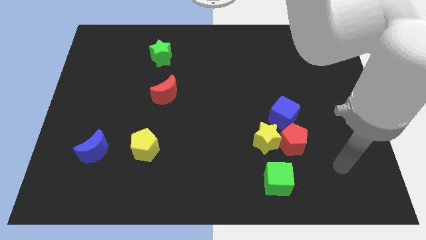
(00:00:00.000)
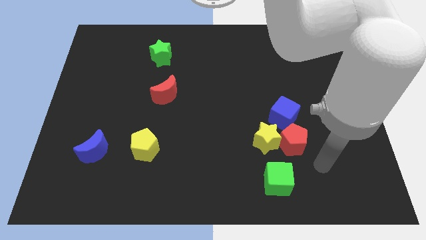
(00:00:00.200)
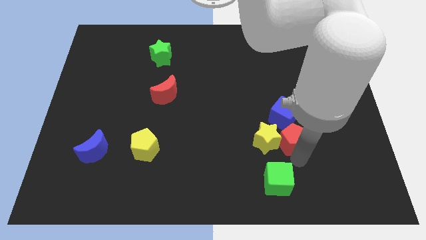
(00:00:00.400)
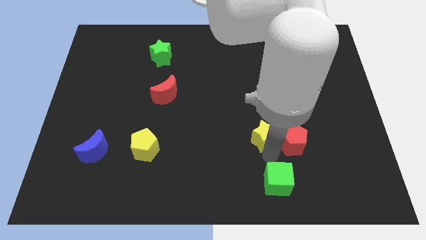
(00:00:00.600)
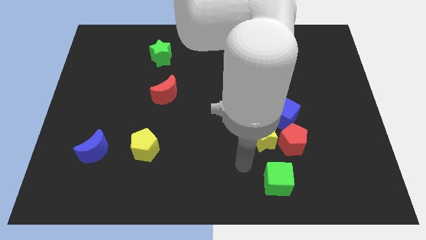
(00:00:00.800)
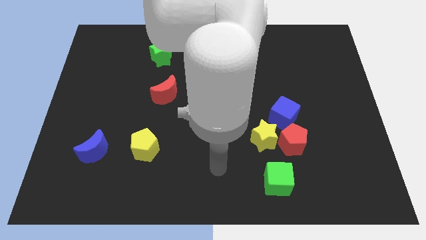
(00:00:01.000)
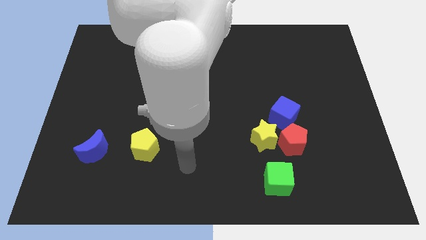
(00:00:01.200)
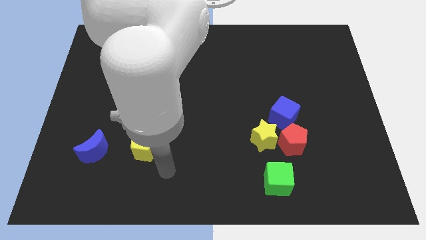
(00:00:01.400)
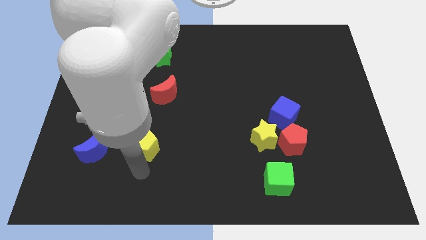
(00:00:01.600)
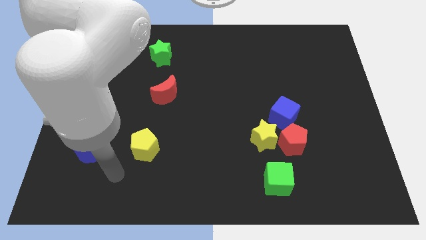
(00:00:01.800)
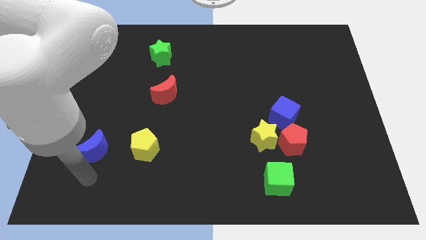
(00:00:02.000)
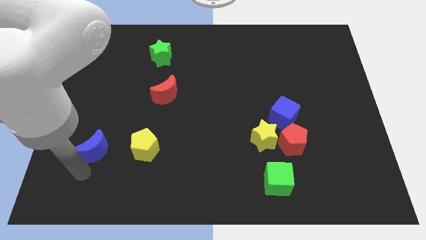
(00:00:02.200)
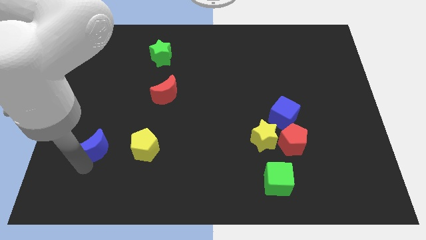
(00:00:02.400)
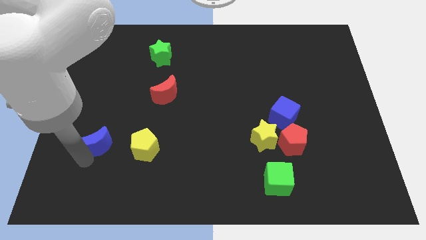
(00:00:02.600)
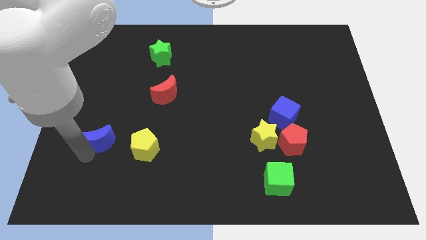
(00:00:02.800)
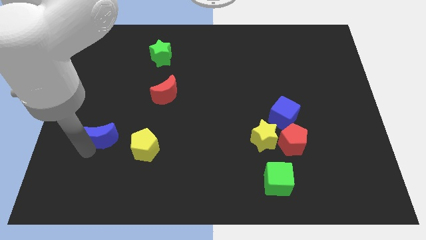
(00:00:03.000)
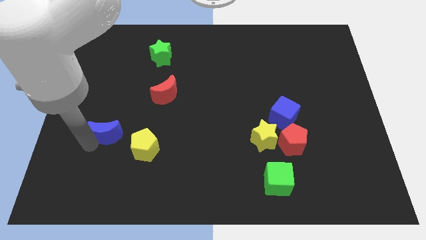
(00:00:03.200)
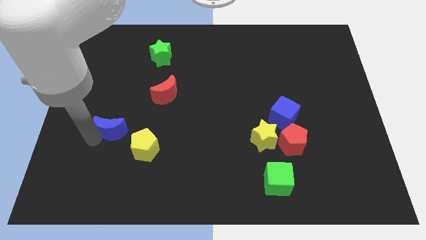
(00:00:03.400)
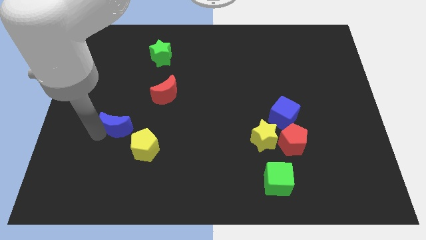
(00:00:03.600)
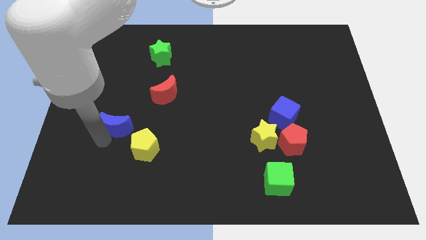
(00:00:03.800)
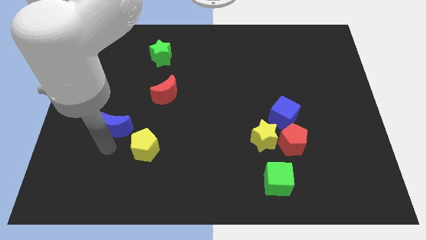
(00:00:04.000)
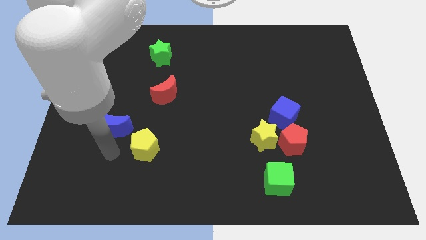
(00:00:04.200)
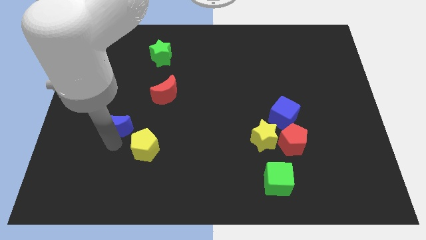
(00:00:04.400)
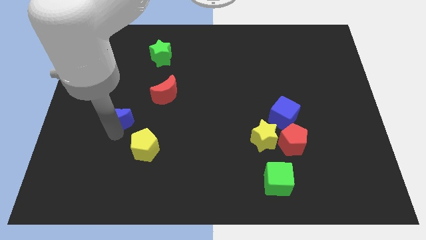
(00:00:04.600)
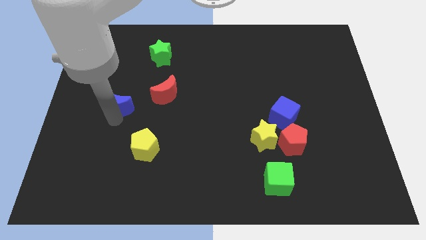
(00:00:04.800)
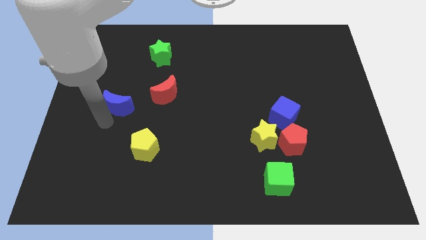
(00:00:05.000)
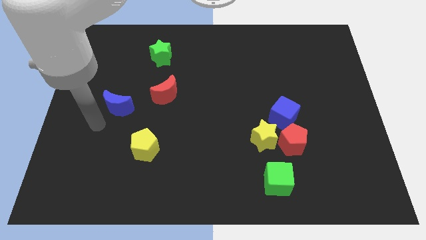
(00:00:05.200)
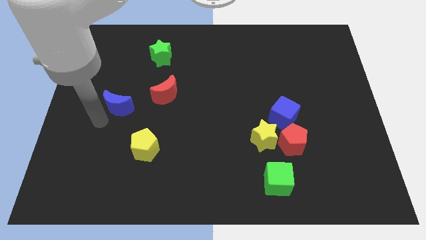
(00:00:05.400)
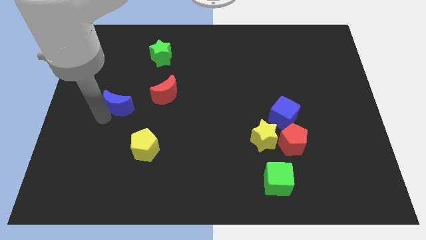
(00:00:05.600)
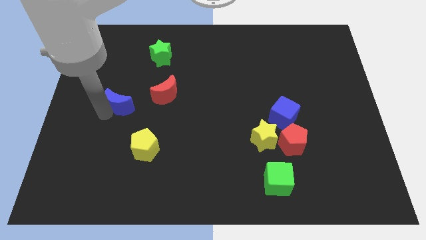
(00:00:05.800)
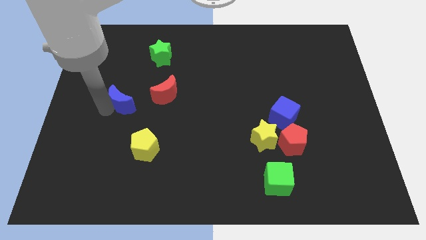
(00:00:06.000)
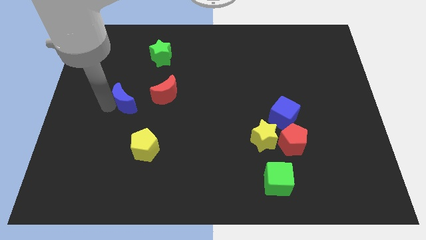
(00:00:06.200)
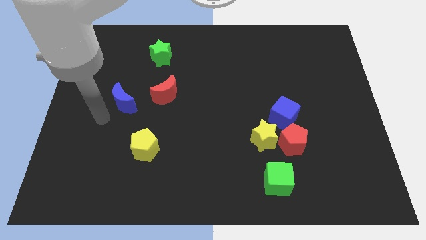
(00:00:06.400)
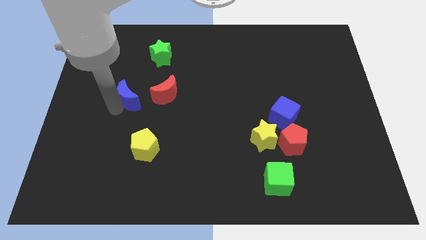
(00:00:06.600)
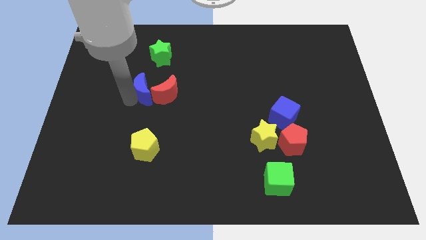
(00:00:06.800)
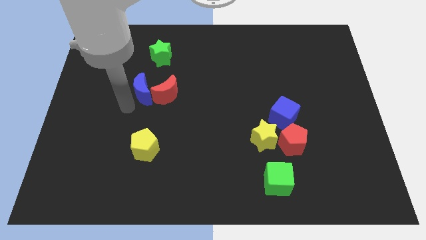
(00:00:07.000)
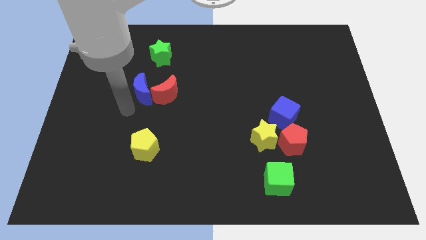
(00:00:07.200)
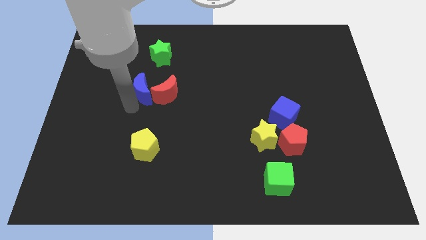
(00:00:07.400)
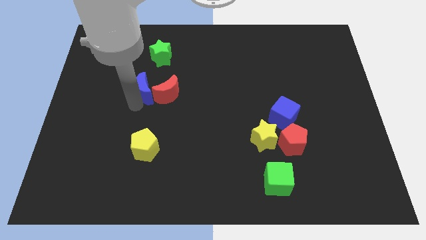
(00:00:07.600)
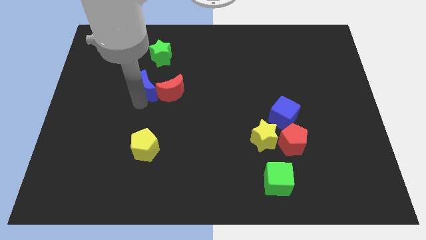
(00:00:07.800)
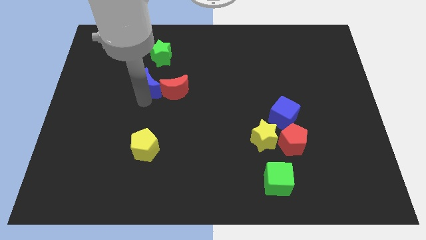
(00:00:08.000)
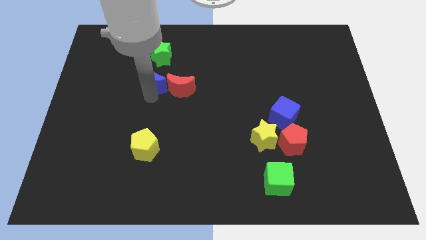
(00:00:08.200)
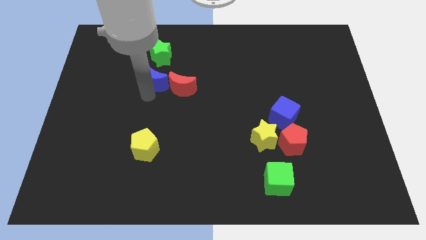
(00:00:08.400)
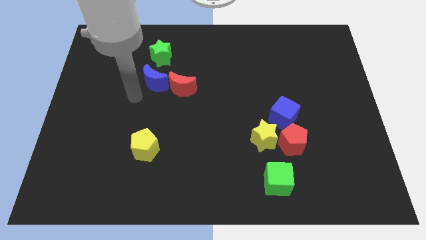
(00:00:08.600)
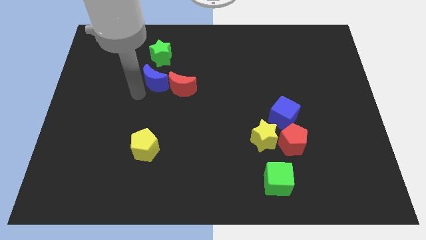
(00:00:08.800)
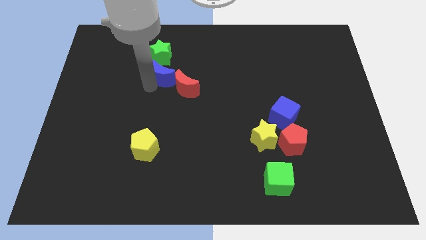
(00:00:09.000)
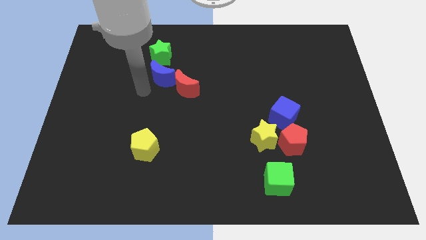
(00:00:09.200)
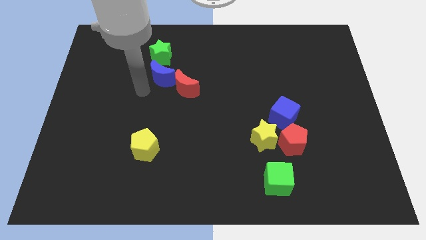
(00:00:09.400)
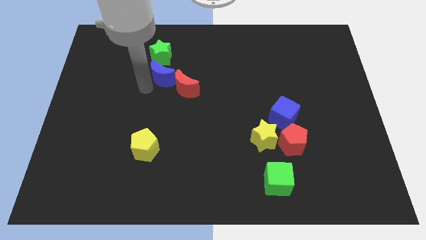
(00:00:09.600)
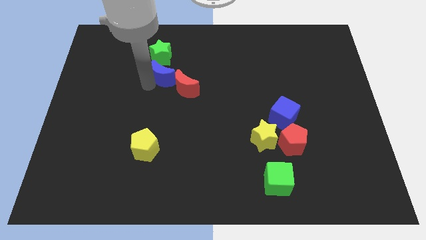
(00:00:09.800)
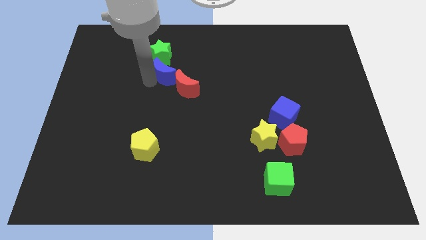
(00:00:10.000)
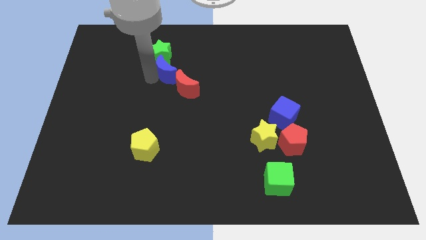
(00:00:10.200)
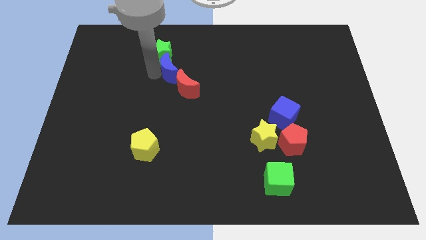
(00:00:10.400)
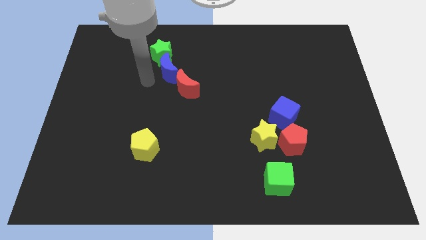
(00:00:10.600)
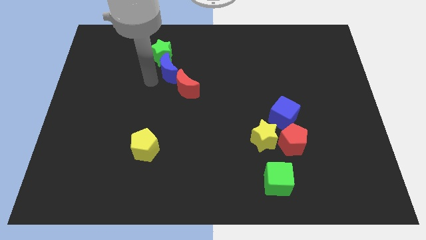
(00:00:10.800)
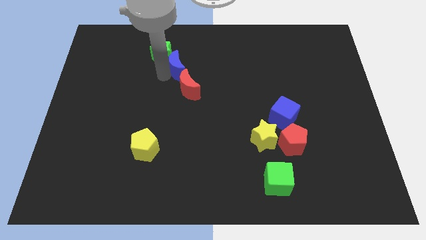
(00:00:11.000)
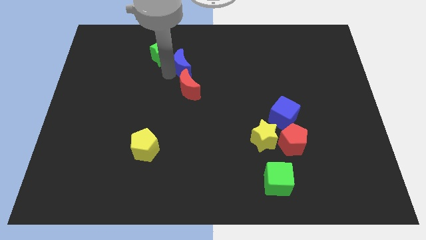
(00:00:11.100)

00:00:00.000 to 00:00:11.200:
push the blue moon just right of the green star

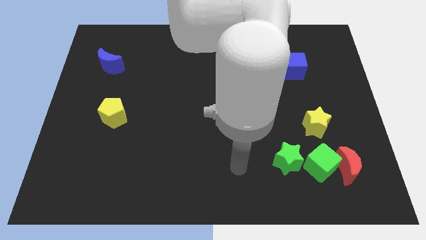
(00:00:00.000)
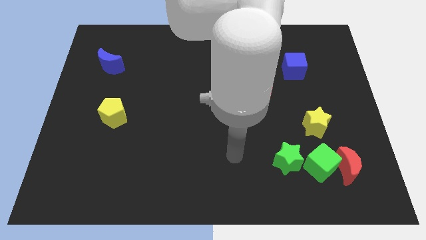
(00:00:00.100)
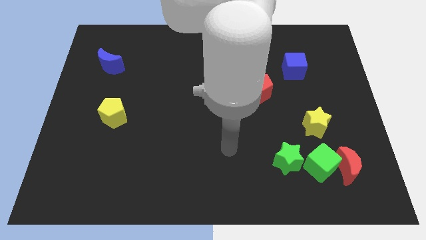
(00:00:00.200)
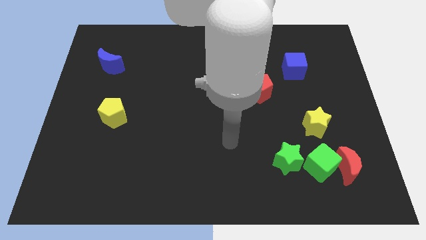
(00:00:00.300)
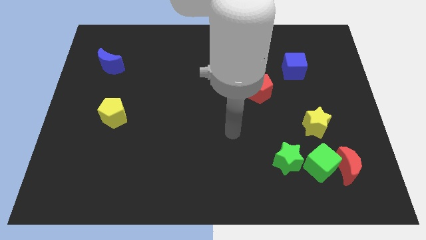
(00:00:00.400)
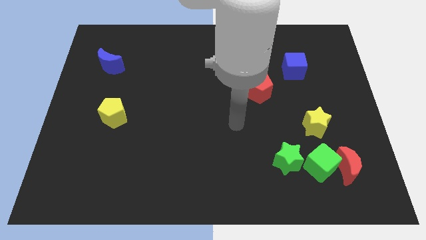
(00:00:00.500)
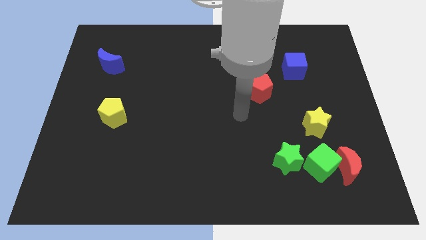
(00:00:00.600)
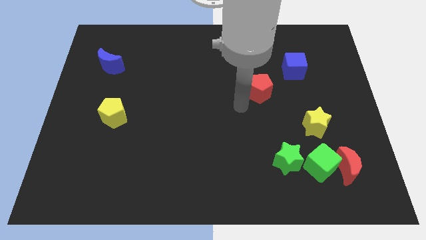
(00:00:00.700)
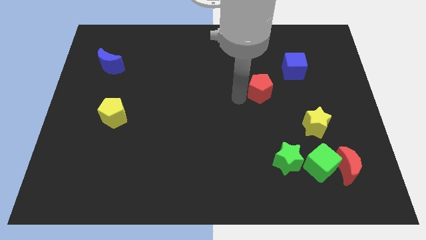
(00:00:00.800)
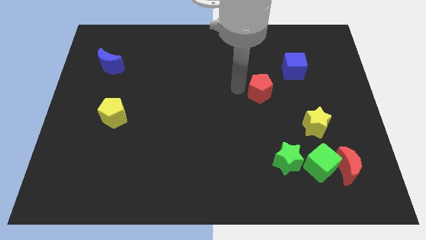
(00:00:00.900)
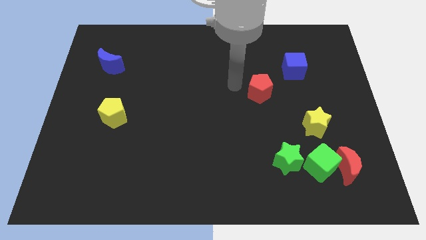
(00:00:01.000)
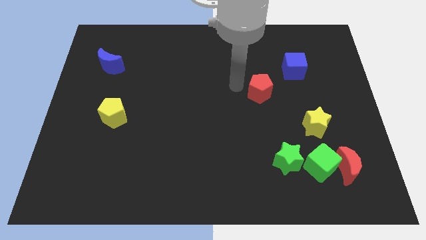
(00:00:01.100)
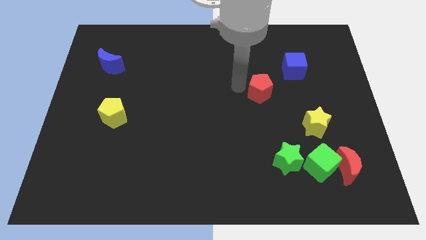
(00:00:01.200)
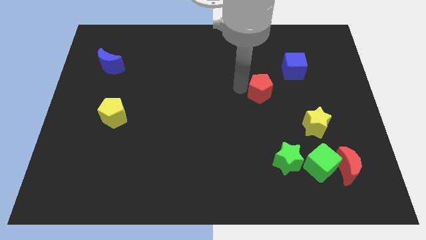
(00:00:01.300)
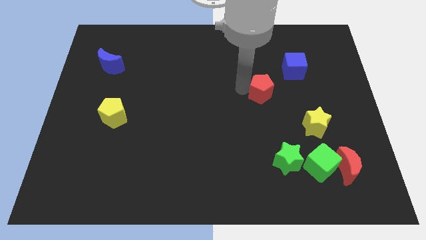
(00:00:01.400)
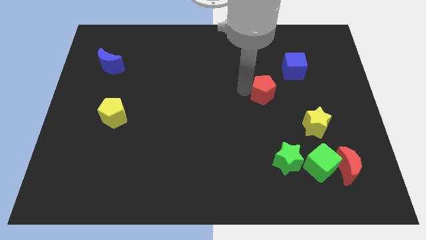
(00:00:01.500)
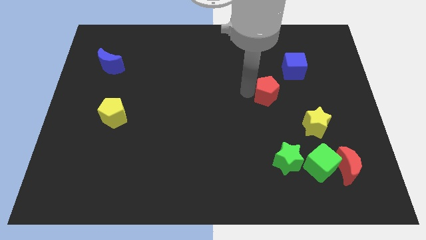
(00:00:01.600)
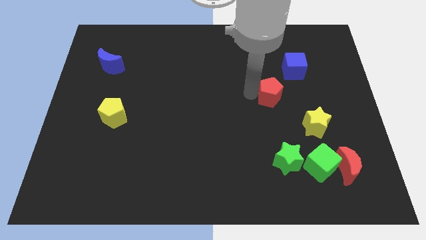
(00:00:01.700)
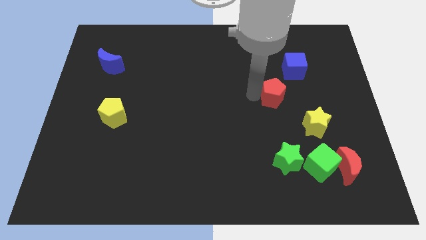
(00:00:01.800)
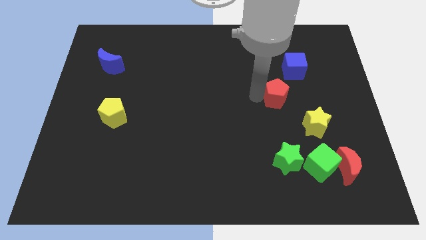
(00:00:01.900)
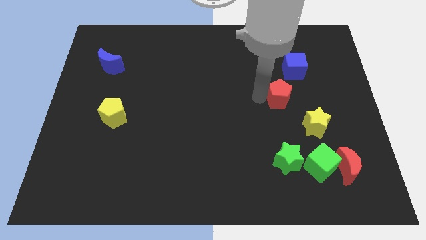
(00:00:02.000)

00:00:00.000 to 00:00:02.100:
move the red pentagon to the bottom of the blue cube

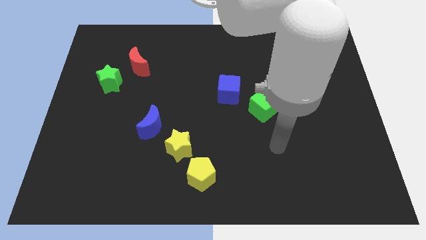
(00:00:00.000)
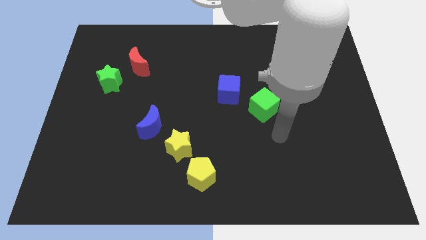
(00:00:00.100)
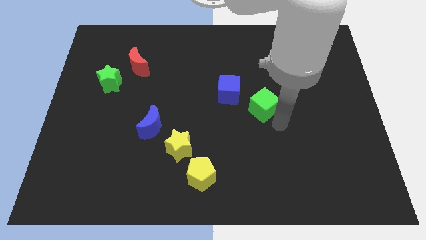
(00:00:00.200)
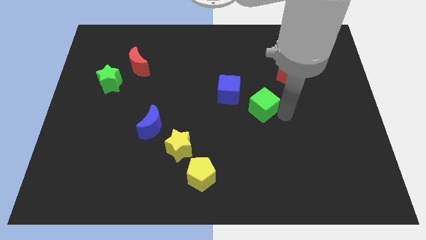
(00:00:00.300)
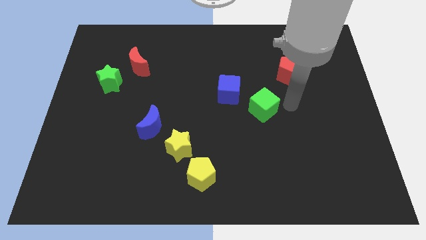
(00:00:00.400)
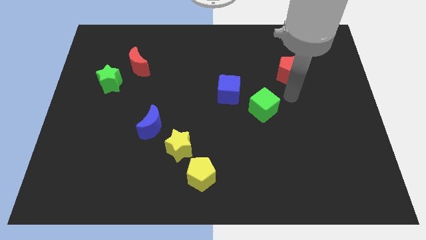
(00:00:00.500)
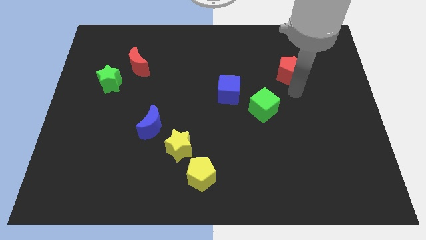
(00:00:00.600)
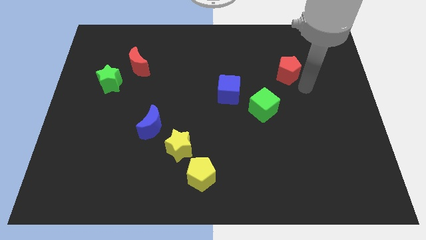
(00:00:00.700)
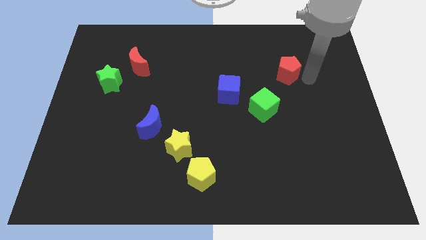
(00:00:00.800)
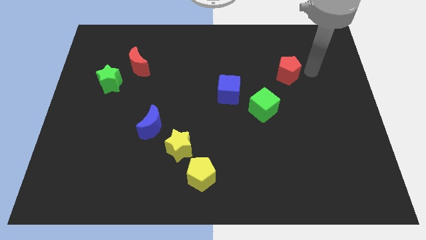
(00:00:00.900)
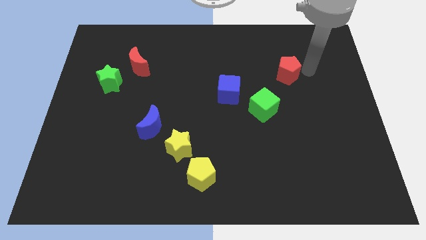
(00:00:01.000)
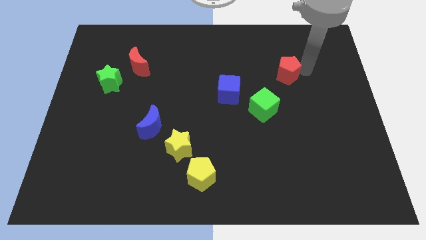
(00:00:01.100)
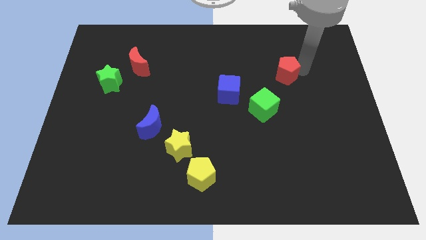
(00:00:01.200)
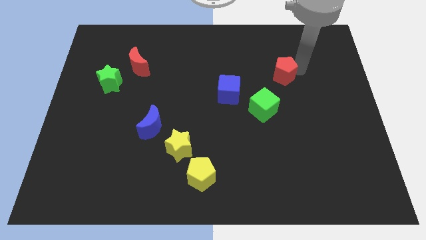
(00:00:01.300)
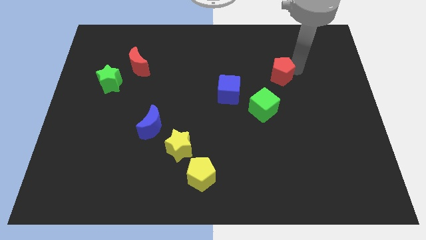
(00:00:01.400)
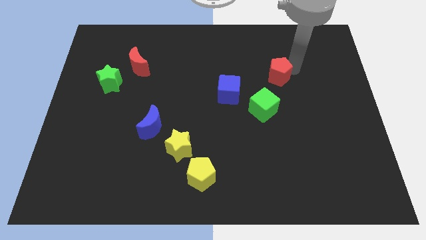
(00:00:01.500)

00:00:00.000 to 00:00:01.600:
move the red pentagon to the top of the green cube
